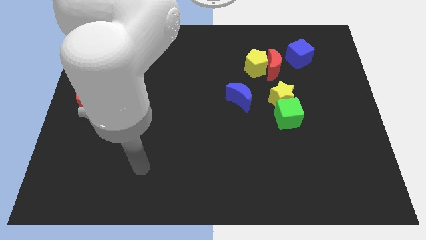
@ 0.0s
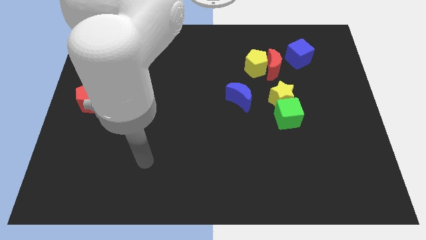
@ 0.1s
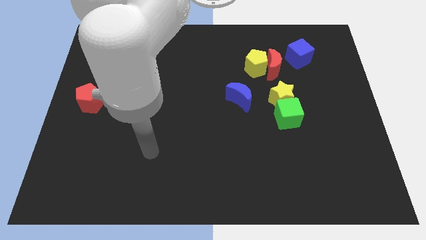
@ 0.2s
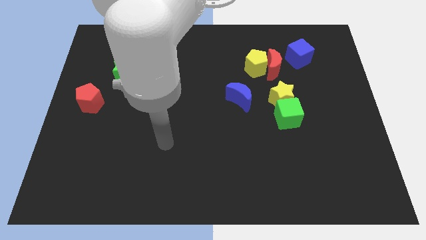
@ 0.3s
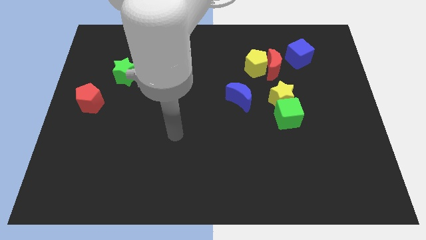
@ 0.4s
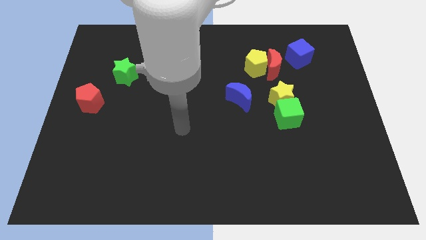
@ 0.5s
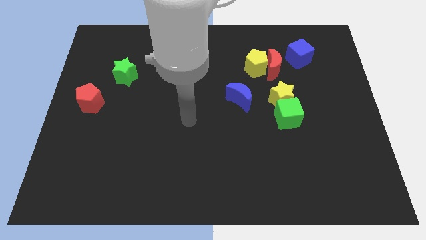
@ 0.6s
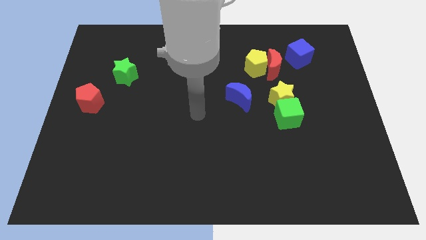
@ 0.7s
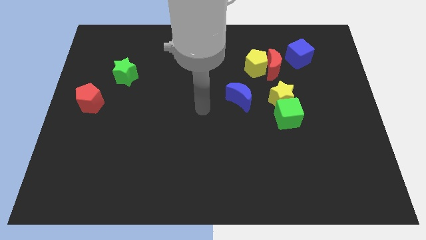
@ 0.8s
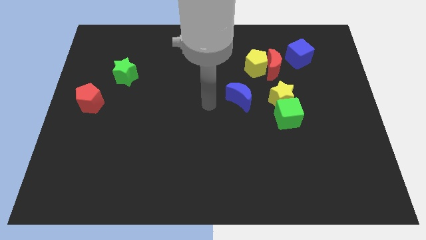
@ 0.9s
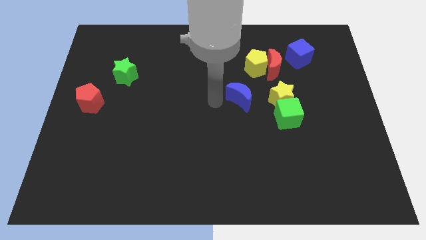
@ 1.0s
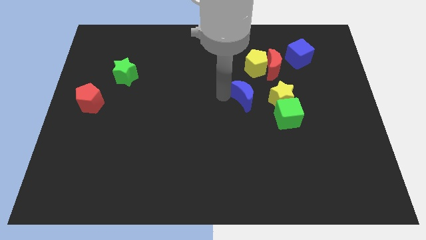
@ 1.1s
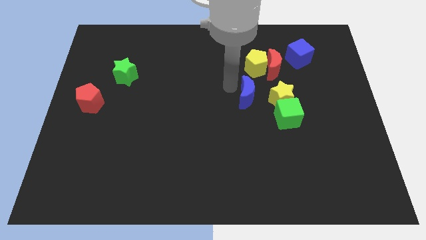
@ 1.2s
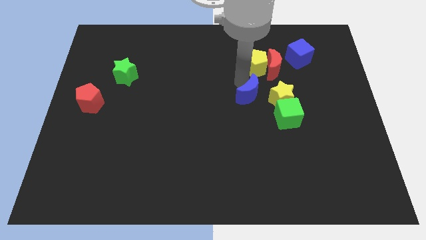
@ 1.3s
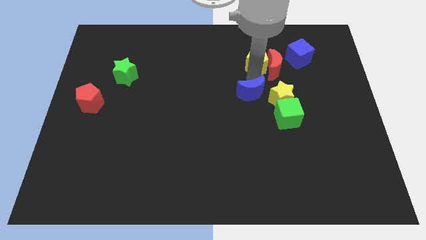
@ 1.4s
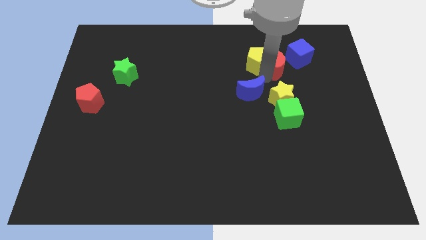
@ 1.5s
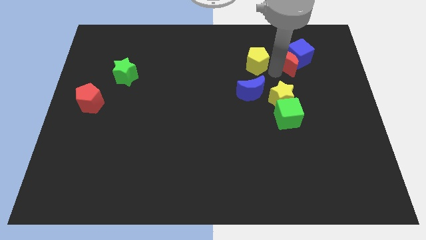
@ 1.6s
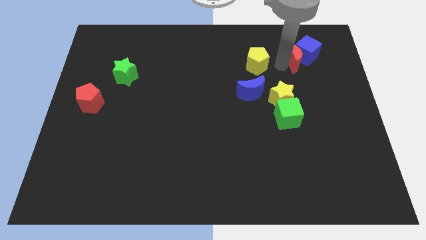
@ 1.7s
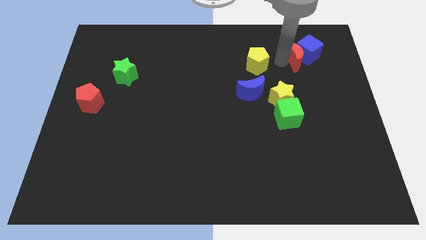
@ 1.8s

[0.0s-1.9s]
move the yellow pentagon away from the red moon

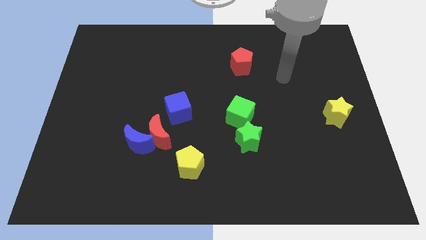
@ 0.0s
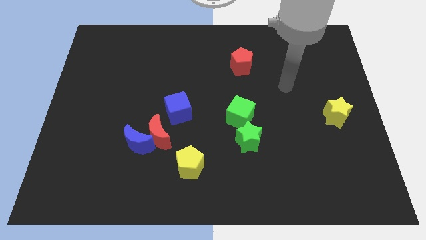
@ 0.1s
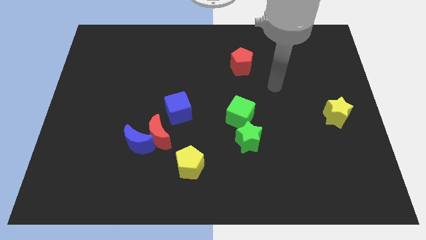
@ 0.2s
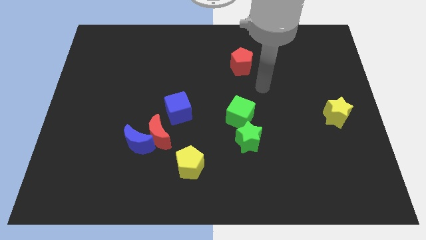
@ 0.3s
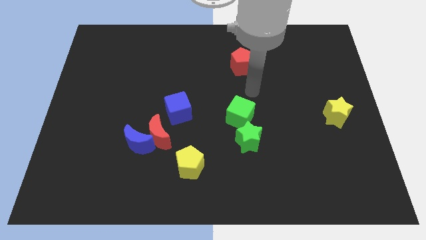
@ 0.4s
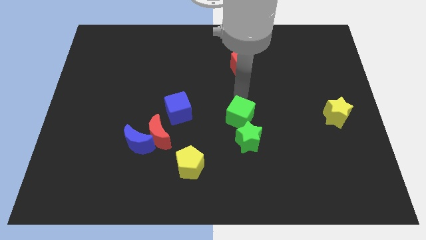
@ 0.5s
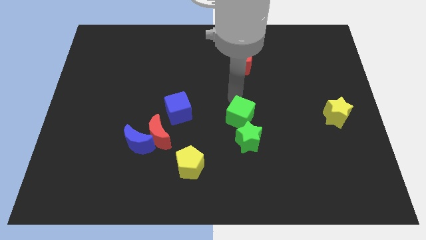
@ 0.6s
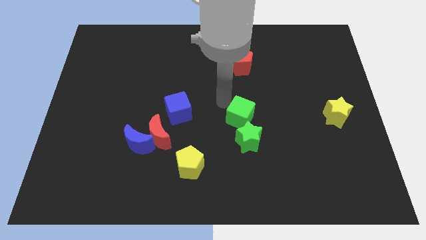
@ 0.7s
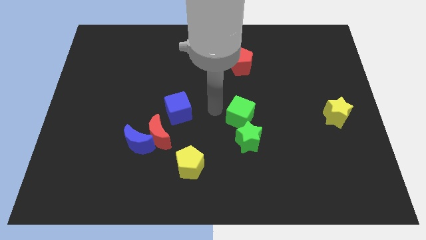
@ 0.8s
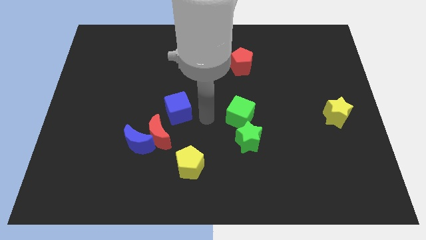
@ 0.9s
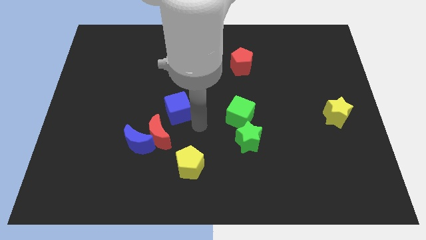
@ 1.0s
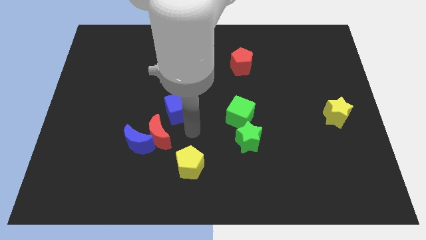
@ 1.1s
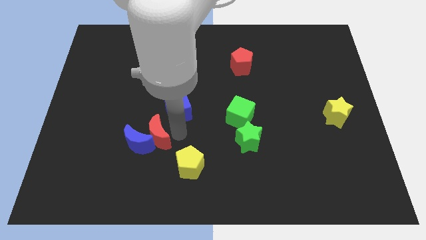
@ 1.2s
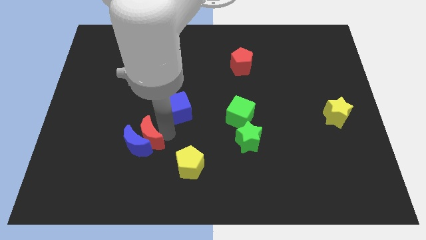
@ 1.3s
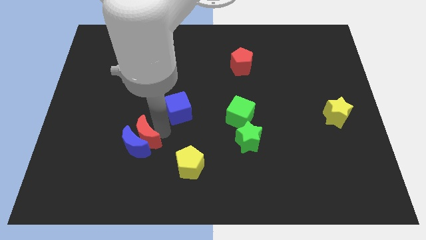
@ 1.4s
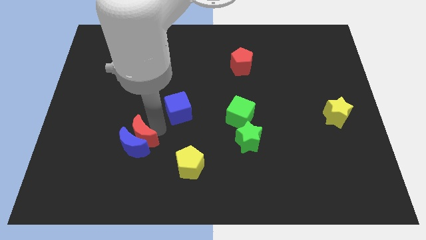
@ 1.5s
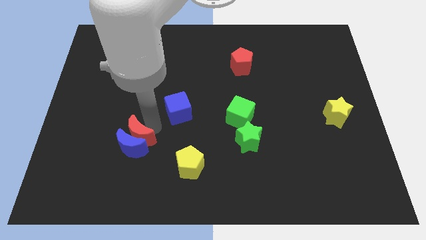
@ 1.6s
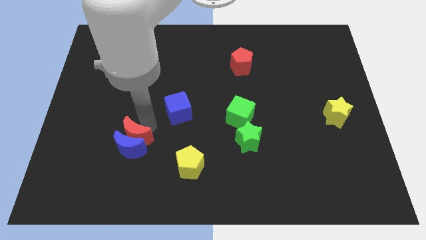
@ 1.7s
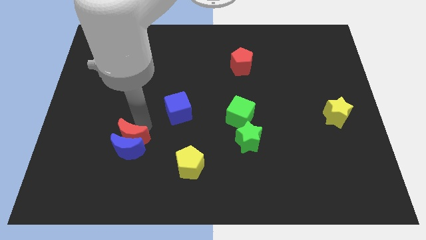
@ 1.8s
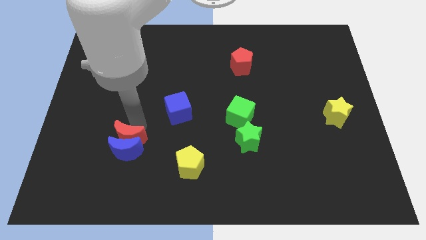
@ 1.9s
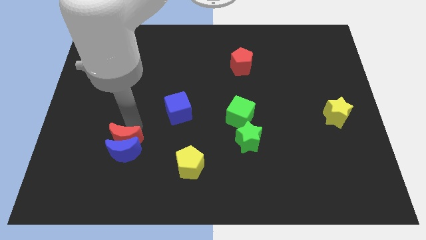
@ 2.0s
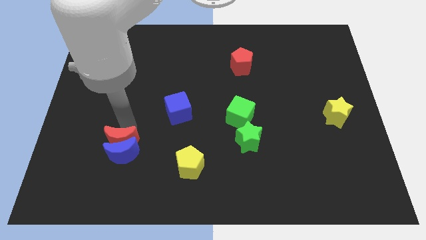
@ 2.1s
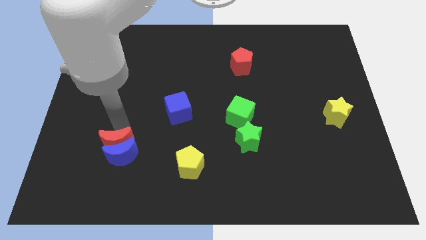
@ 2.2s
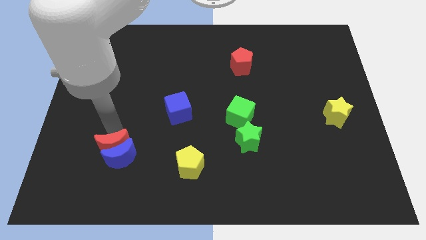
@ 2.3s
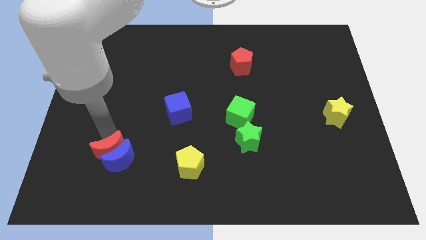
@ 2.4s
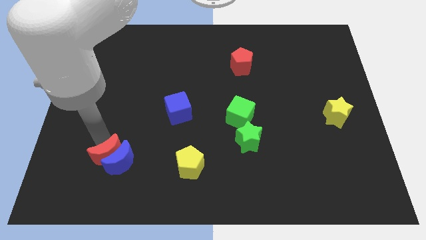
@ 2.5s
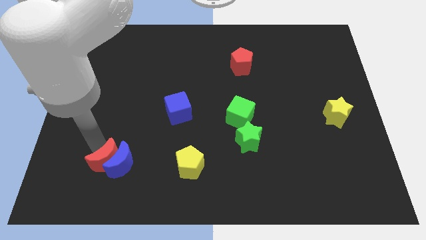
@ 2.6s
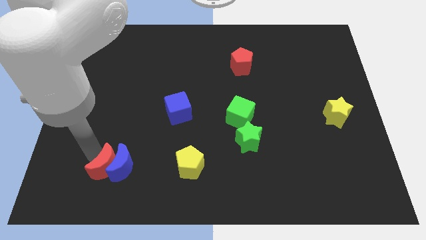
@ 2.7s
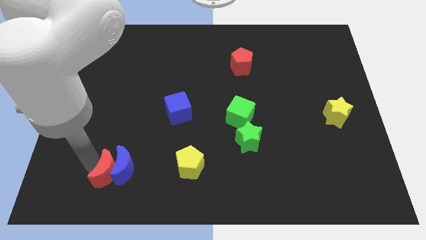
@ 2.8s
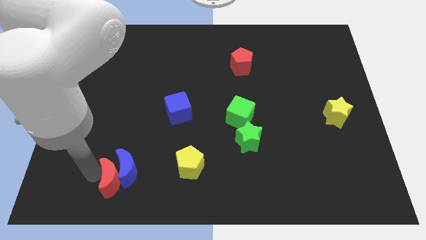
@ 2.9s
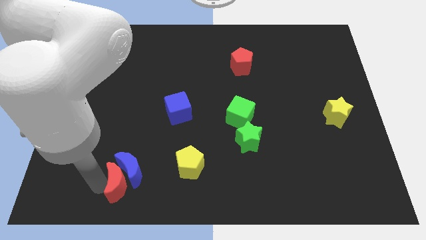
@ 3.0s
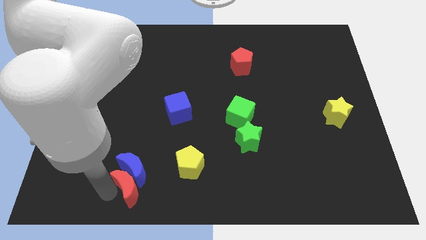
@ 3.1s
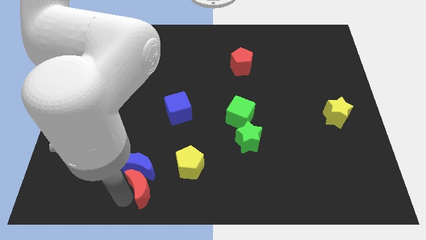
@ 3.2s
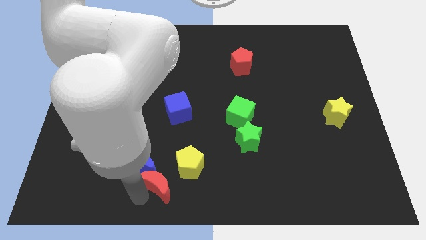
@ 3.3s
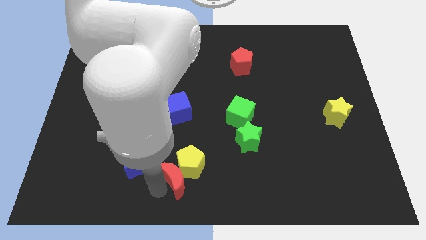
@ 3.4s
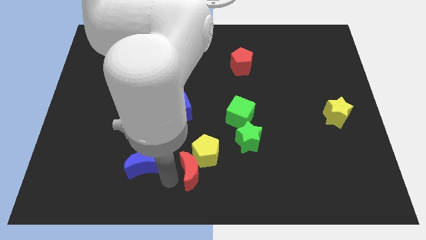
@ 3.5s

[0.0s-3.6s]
move the blue moon away from the red moon

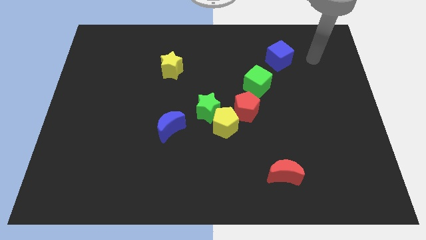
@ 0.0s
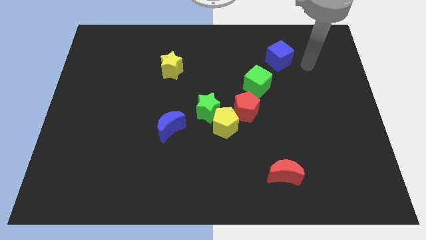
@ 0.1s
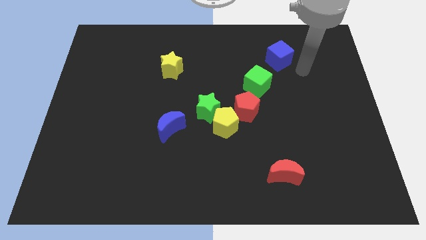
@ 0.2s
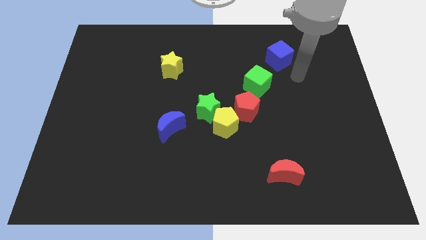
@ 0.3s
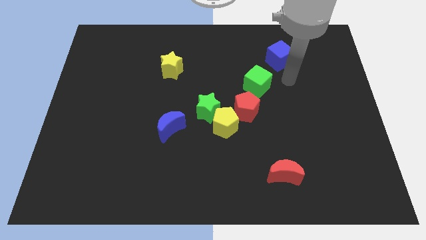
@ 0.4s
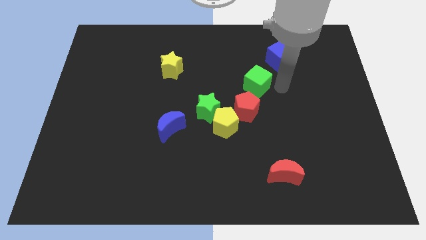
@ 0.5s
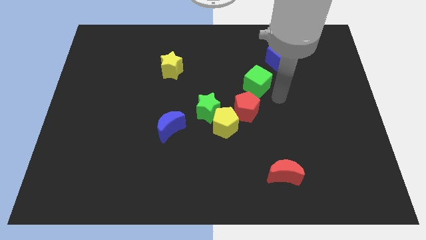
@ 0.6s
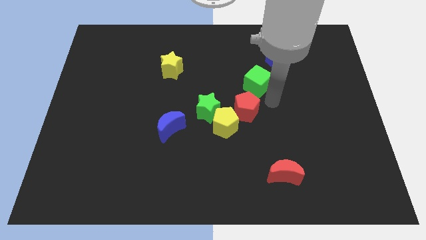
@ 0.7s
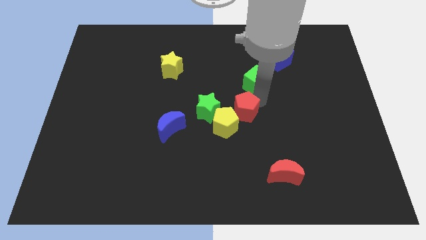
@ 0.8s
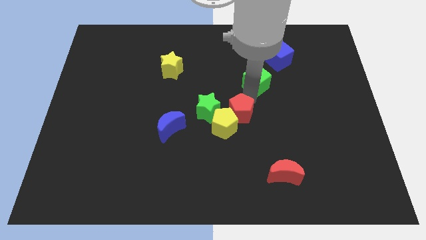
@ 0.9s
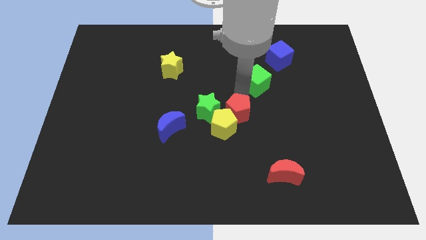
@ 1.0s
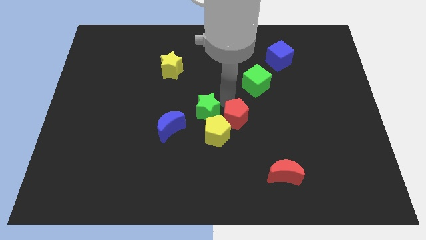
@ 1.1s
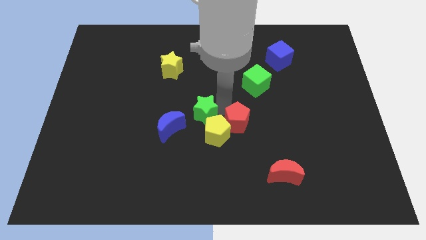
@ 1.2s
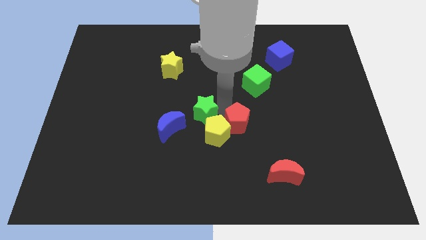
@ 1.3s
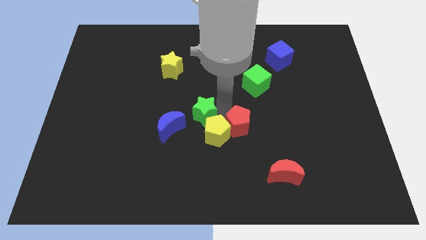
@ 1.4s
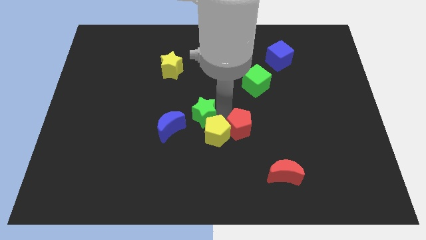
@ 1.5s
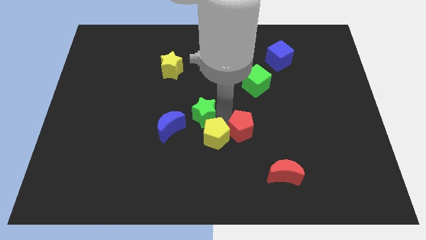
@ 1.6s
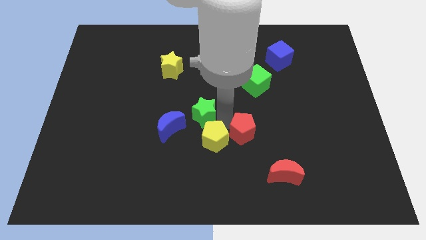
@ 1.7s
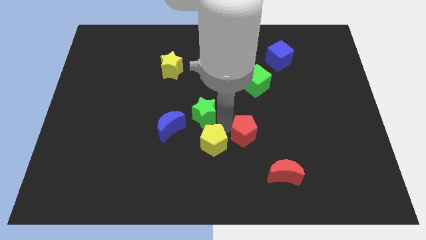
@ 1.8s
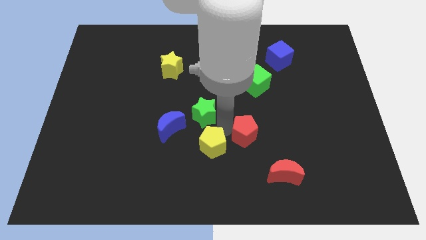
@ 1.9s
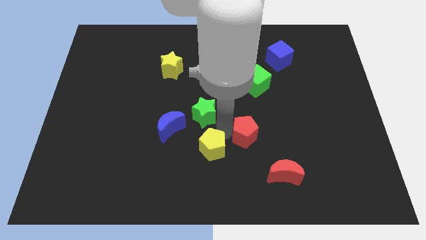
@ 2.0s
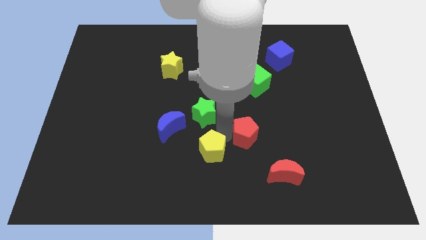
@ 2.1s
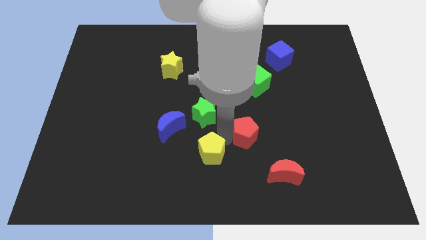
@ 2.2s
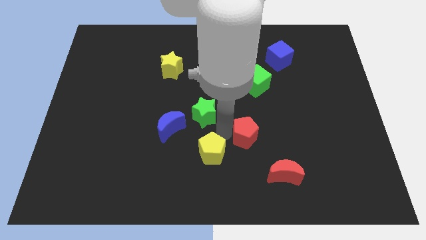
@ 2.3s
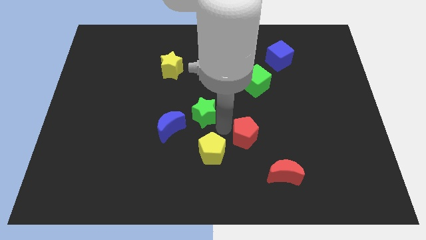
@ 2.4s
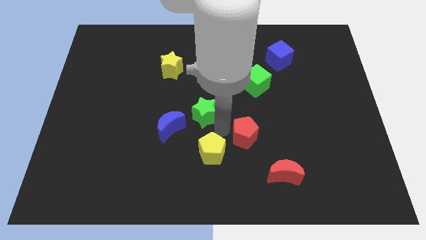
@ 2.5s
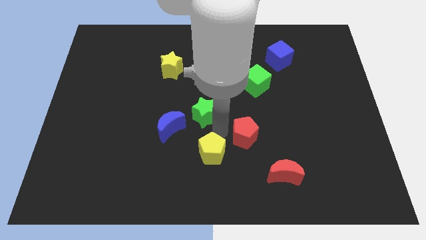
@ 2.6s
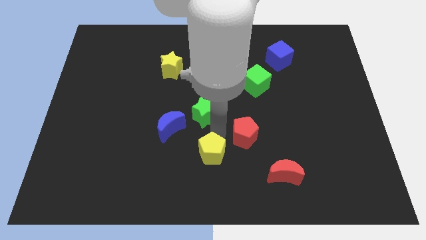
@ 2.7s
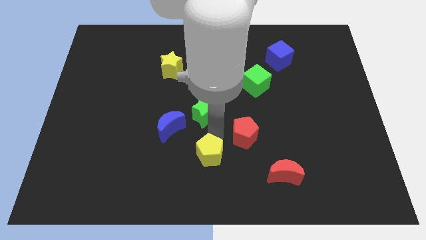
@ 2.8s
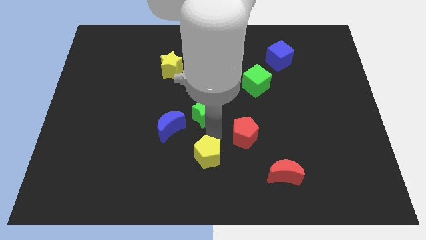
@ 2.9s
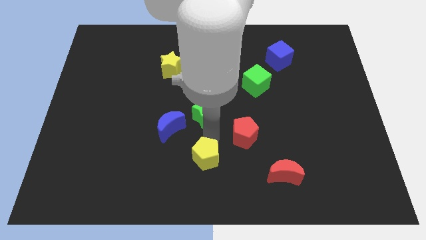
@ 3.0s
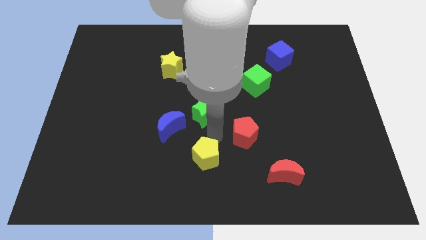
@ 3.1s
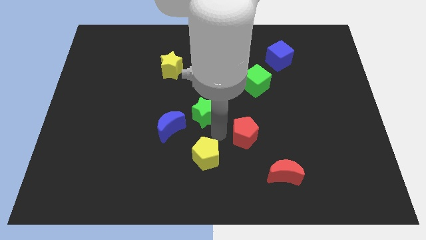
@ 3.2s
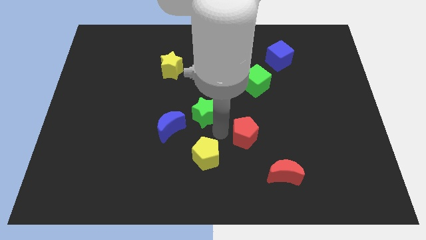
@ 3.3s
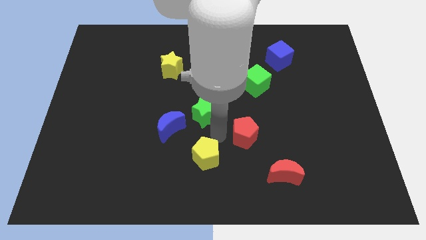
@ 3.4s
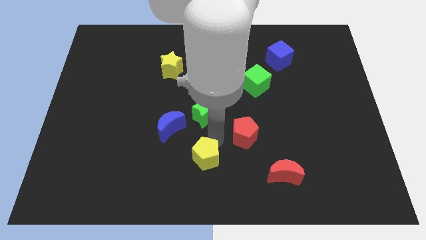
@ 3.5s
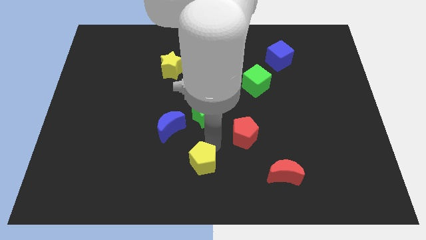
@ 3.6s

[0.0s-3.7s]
separate the yellow pentagon from the green star and red pentagon

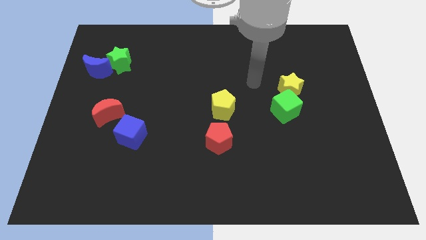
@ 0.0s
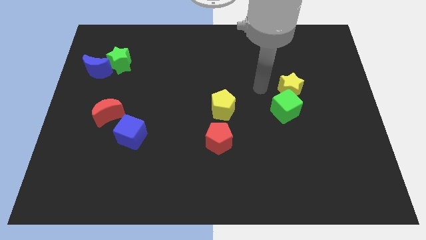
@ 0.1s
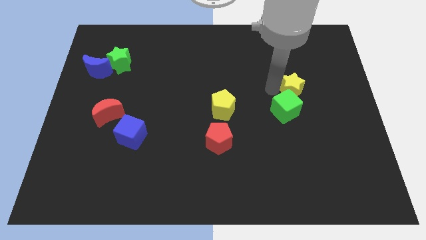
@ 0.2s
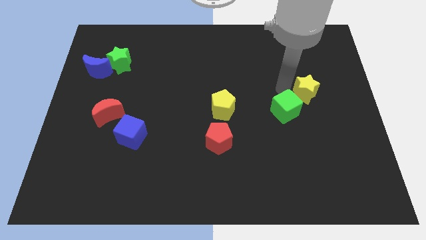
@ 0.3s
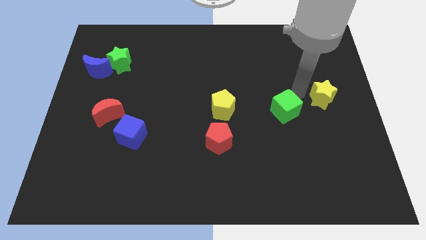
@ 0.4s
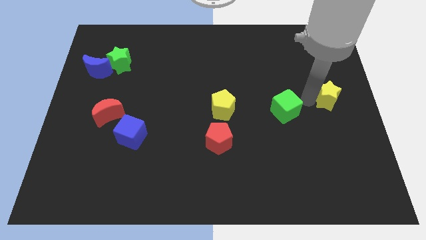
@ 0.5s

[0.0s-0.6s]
move the green cube away from the yellow star
